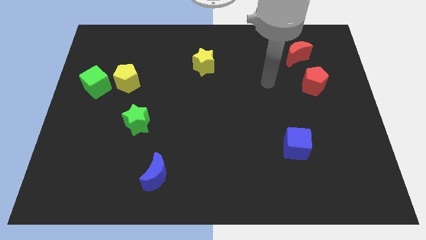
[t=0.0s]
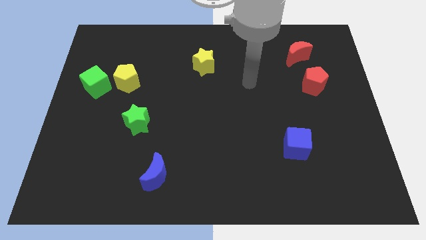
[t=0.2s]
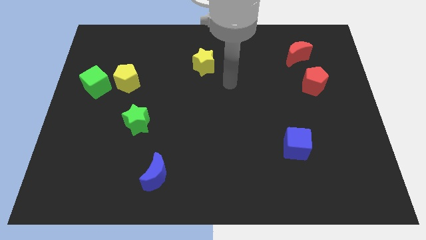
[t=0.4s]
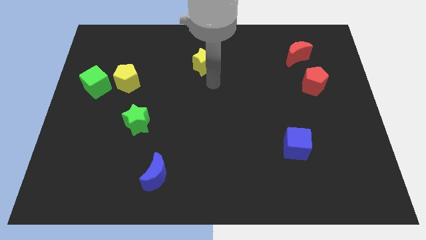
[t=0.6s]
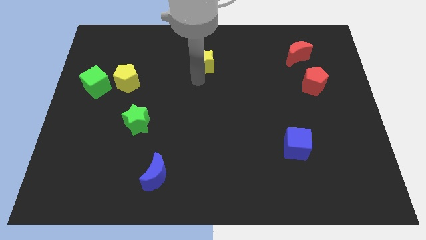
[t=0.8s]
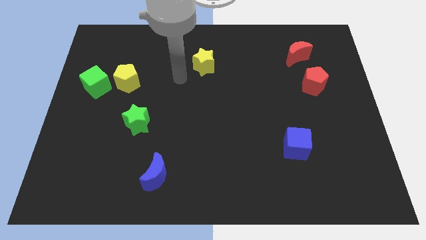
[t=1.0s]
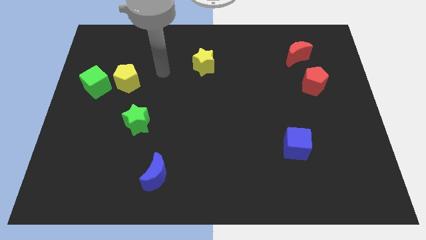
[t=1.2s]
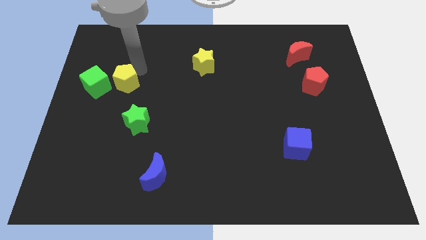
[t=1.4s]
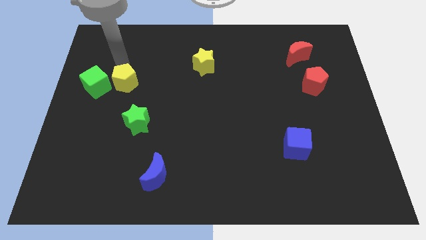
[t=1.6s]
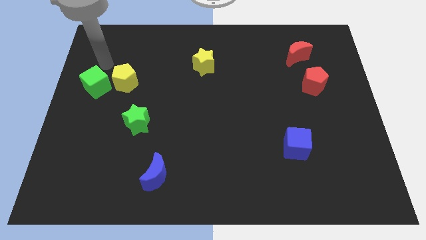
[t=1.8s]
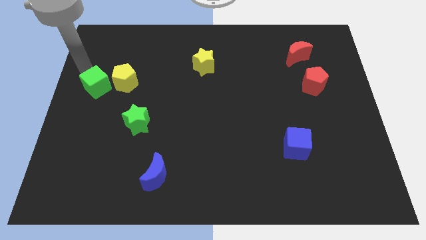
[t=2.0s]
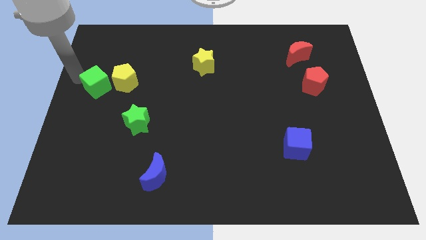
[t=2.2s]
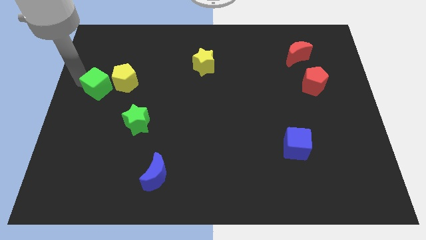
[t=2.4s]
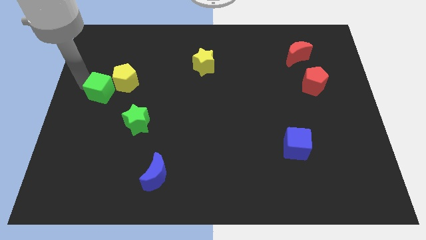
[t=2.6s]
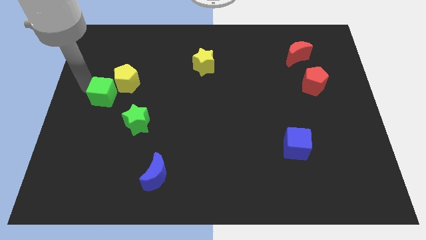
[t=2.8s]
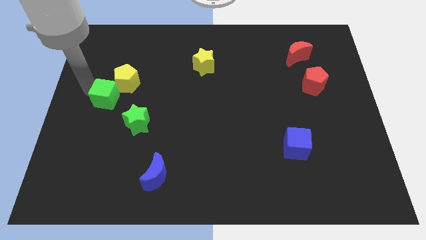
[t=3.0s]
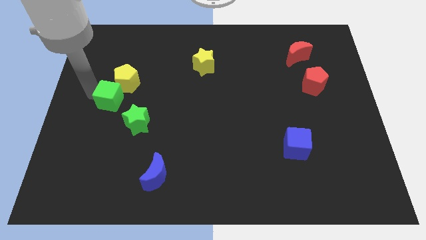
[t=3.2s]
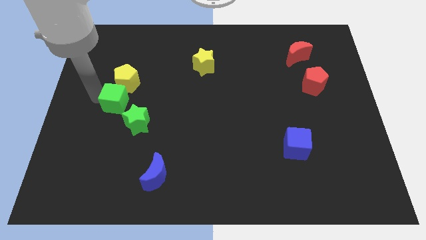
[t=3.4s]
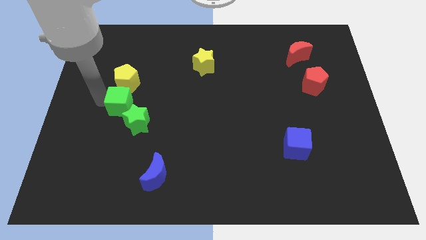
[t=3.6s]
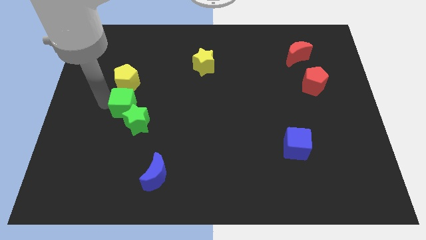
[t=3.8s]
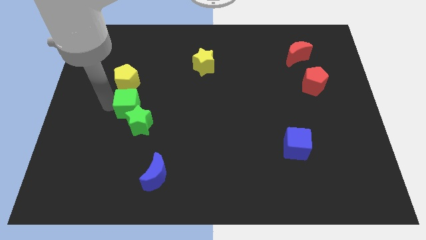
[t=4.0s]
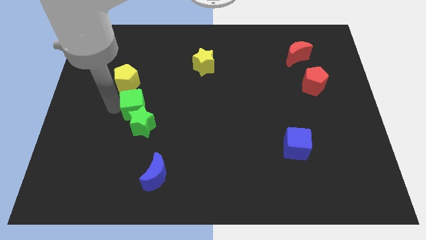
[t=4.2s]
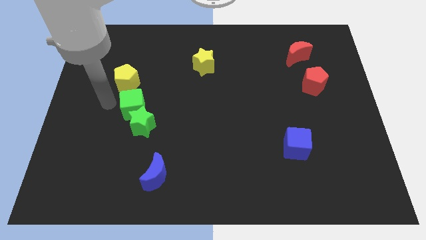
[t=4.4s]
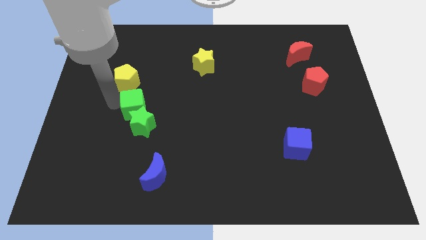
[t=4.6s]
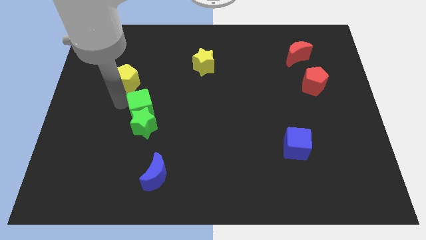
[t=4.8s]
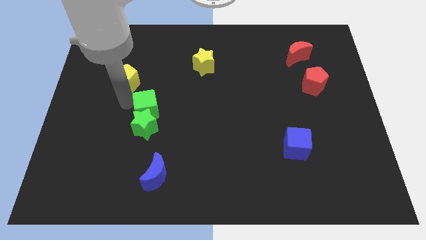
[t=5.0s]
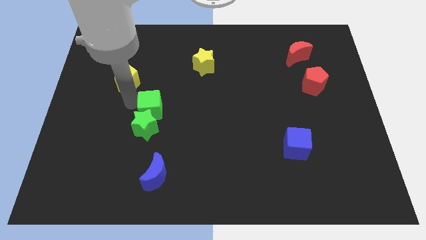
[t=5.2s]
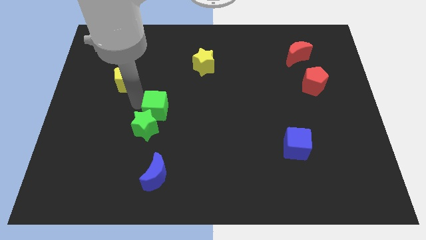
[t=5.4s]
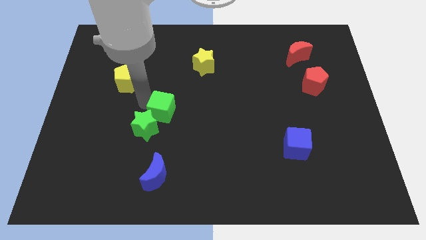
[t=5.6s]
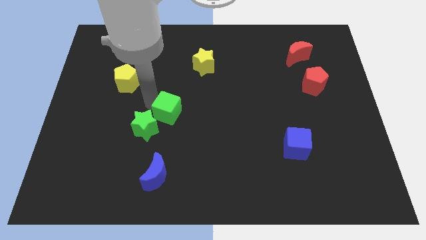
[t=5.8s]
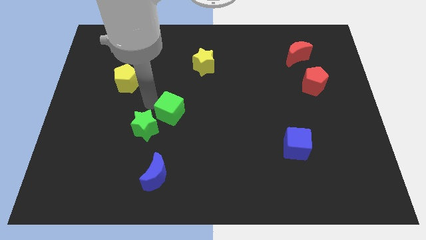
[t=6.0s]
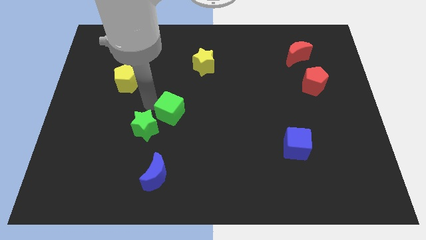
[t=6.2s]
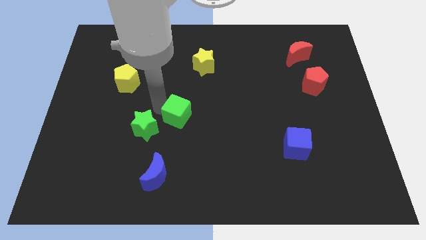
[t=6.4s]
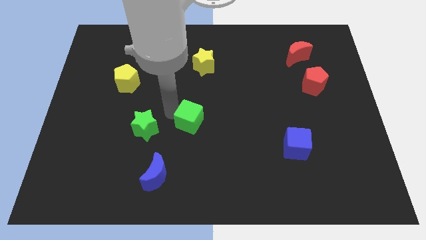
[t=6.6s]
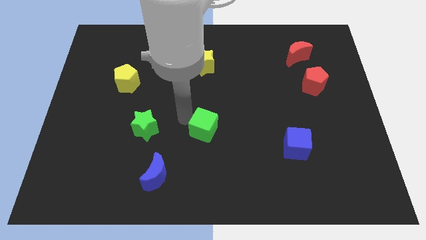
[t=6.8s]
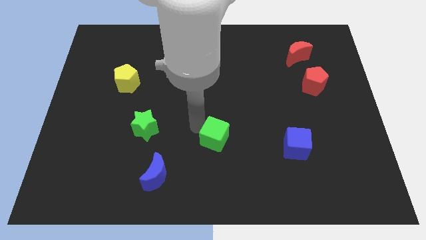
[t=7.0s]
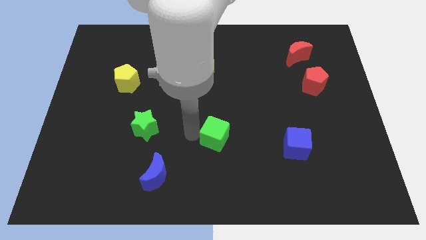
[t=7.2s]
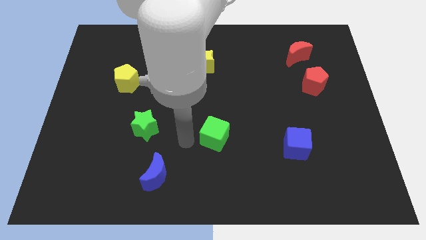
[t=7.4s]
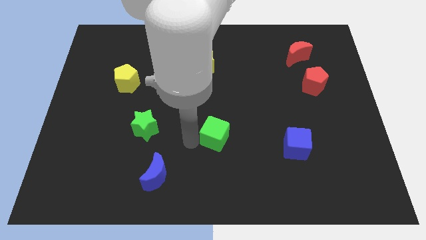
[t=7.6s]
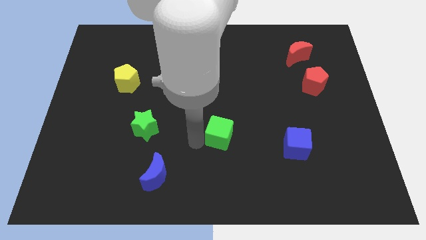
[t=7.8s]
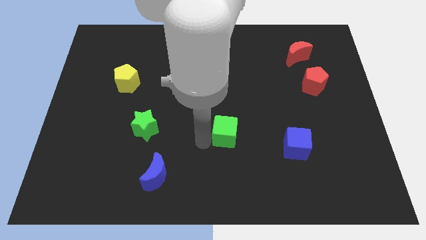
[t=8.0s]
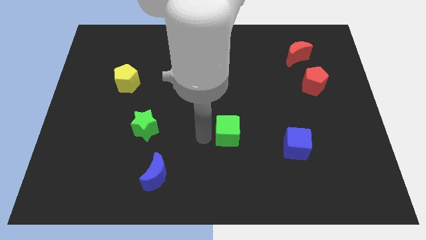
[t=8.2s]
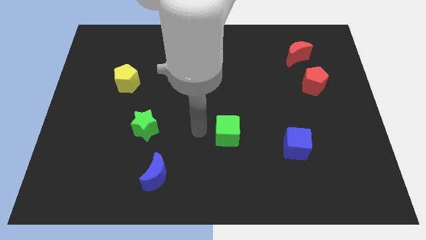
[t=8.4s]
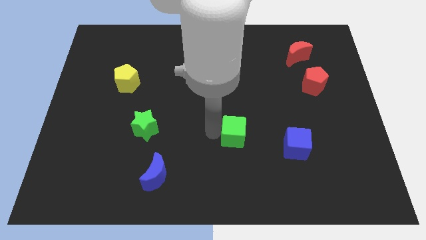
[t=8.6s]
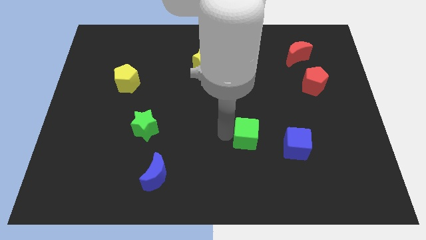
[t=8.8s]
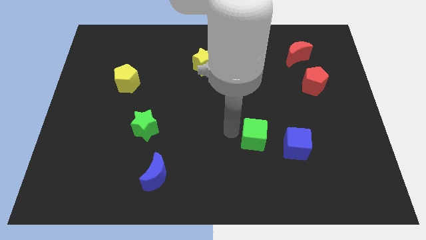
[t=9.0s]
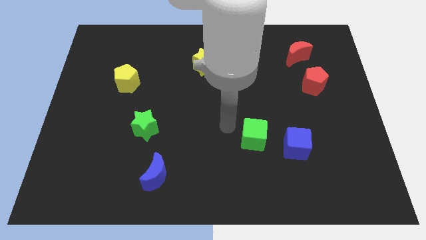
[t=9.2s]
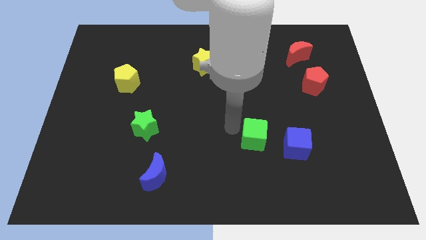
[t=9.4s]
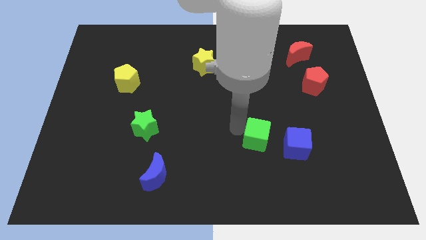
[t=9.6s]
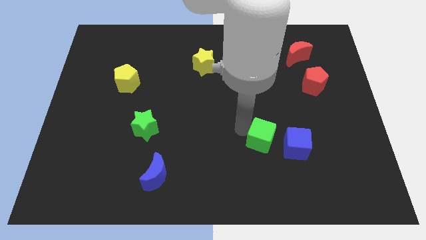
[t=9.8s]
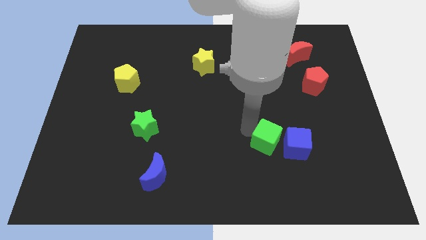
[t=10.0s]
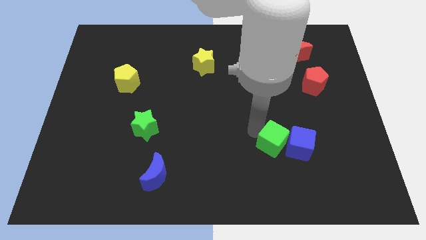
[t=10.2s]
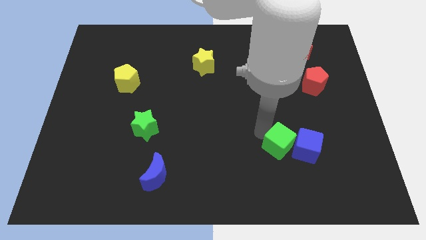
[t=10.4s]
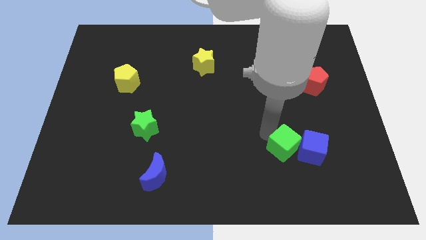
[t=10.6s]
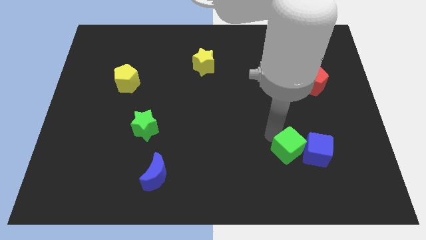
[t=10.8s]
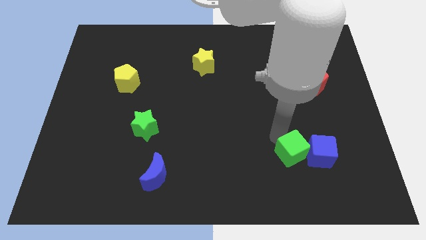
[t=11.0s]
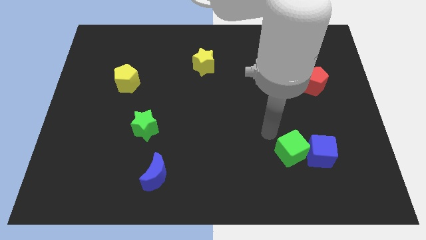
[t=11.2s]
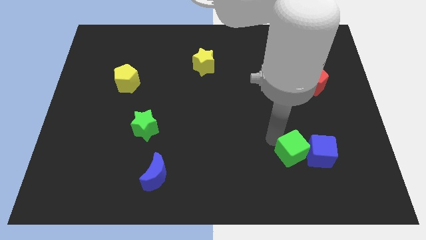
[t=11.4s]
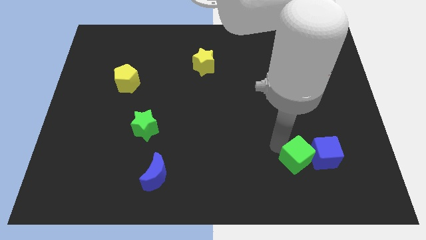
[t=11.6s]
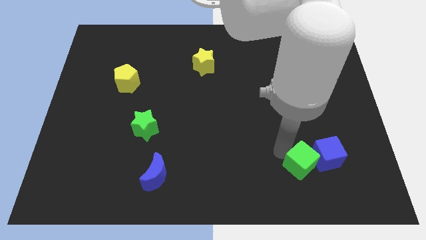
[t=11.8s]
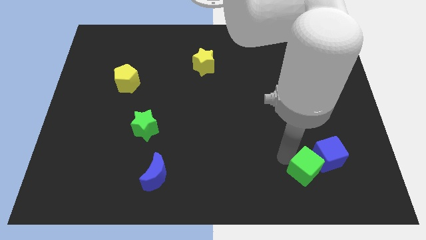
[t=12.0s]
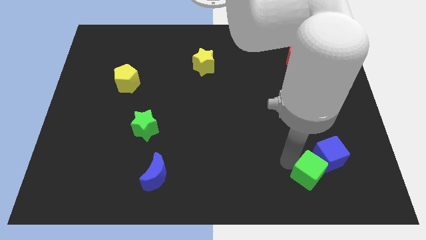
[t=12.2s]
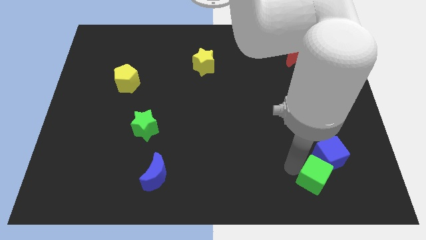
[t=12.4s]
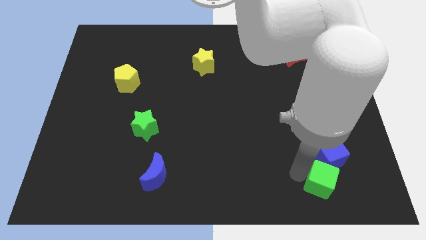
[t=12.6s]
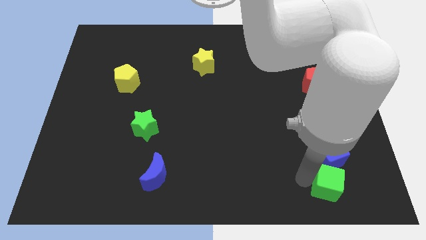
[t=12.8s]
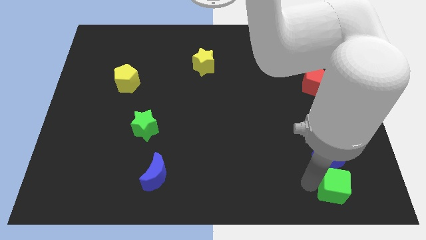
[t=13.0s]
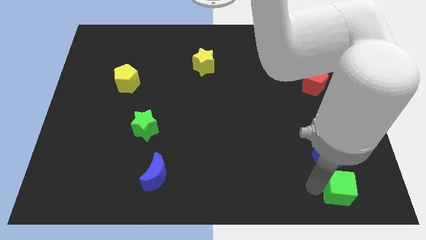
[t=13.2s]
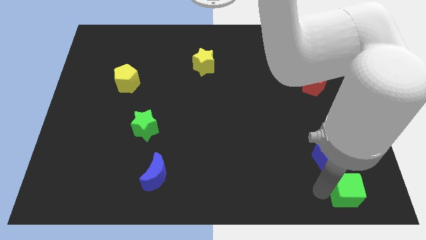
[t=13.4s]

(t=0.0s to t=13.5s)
move the green cube to the lower right corner
